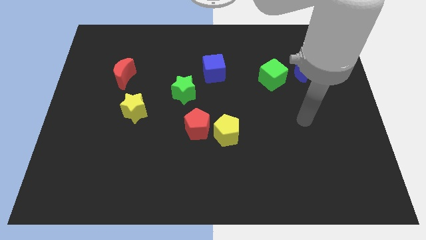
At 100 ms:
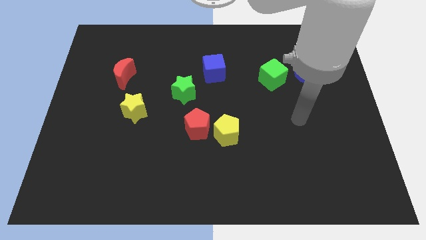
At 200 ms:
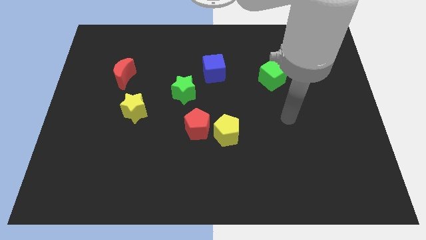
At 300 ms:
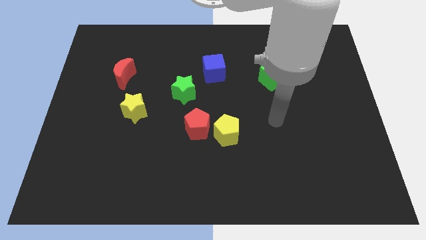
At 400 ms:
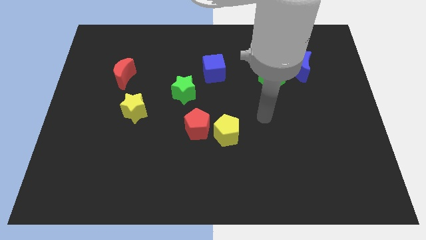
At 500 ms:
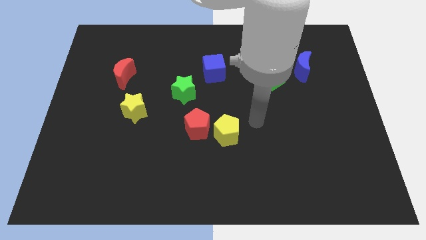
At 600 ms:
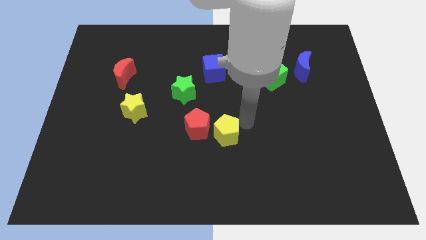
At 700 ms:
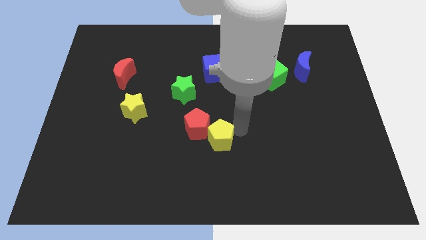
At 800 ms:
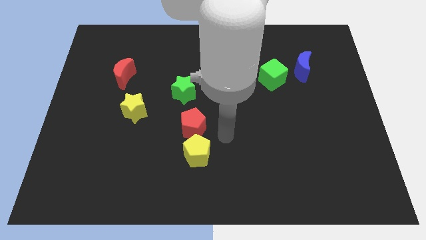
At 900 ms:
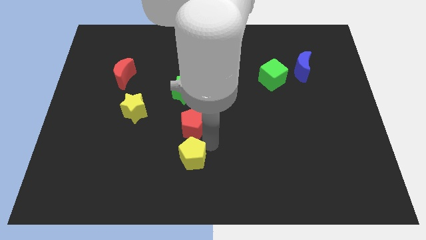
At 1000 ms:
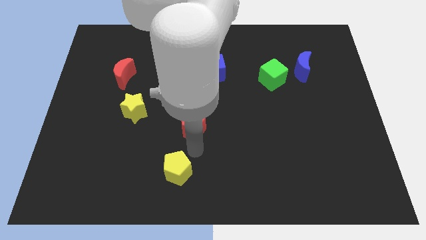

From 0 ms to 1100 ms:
move the red pentagon away from the yellow pentagon

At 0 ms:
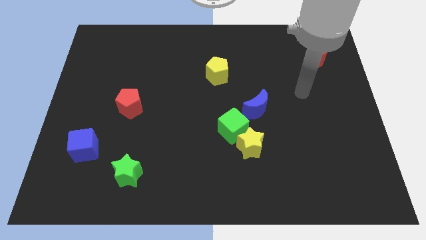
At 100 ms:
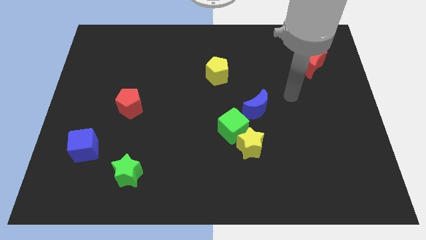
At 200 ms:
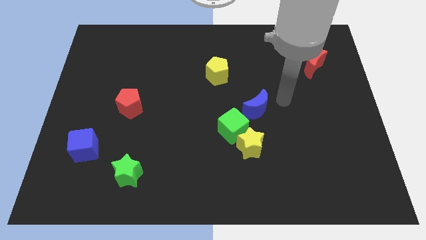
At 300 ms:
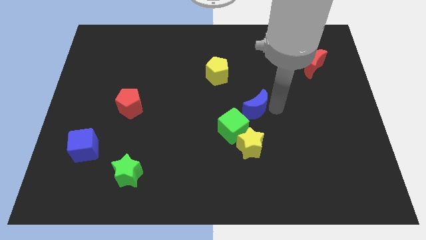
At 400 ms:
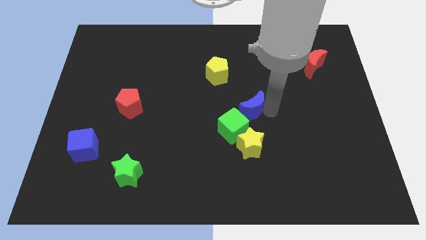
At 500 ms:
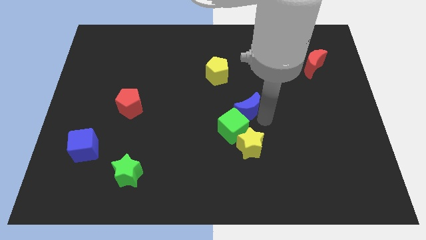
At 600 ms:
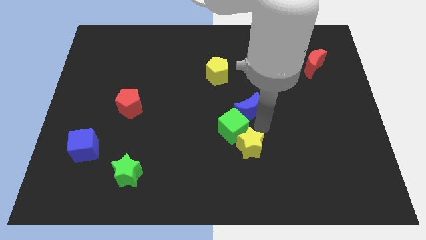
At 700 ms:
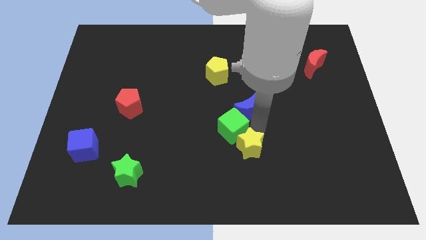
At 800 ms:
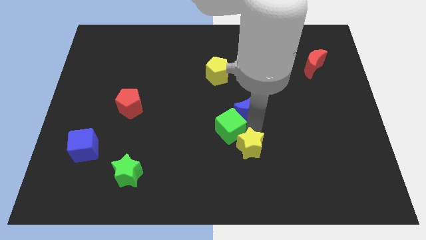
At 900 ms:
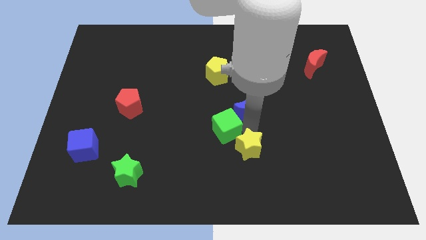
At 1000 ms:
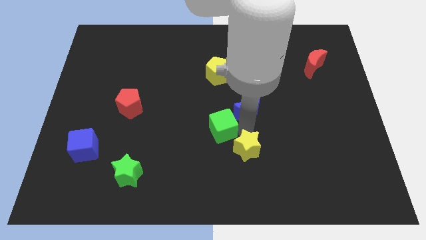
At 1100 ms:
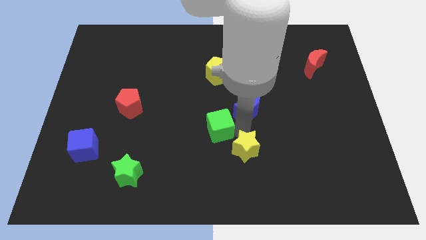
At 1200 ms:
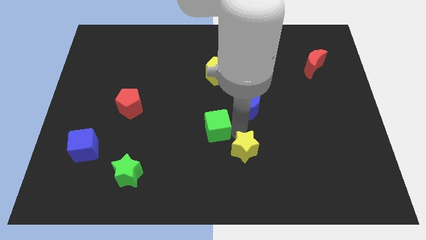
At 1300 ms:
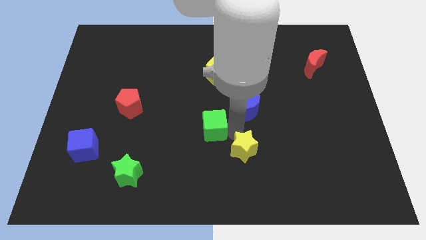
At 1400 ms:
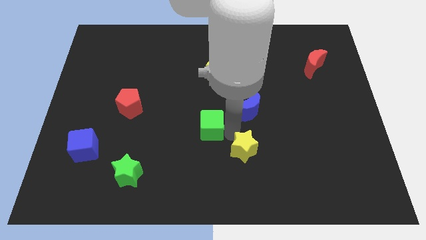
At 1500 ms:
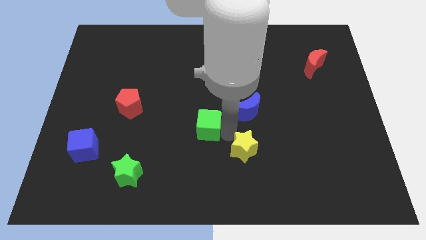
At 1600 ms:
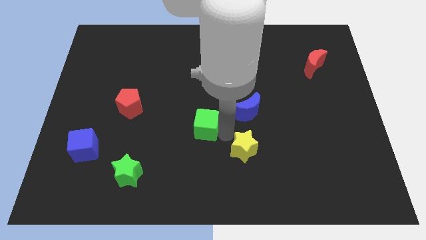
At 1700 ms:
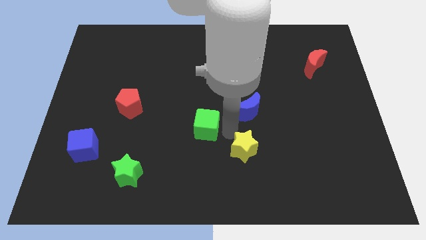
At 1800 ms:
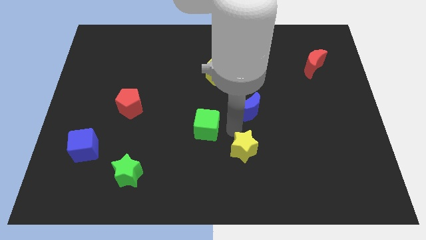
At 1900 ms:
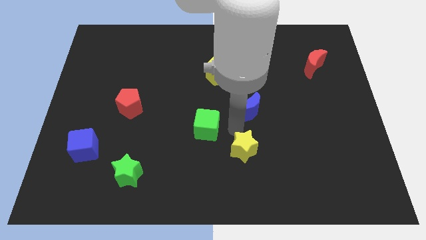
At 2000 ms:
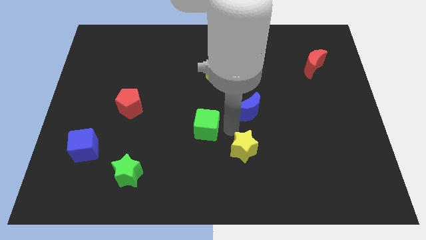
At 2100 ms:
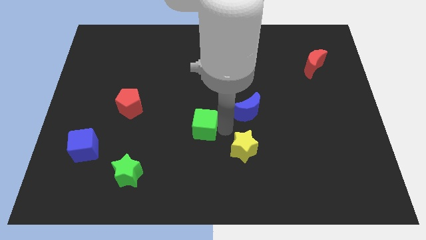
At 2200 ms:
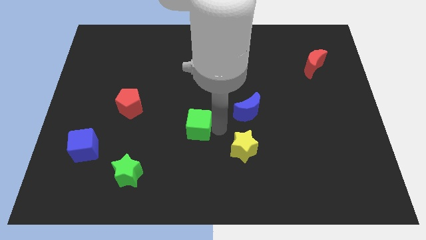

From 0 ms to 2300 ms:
move the green cube away from the yellow star and blue moon

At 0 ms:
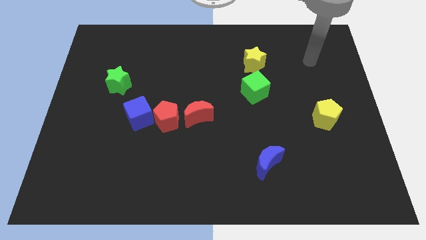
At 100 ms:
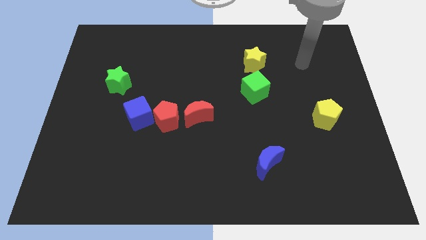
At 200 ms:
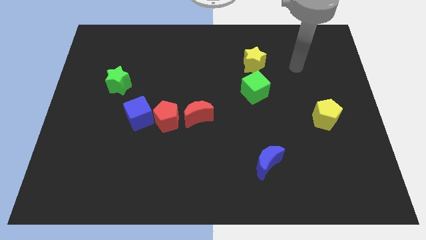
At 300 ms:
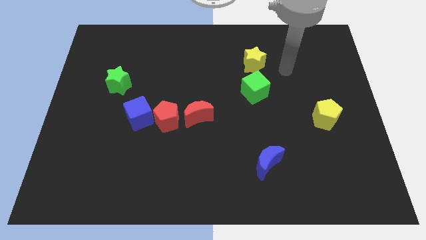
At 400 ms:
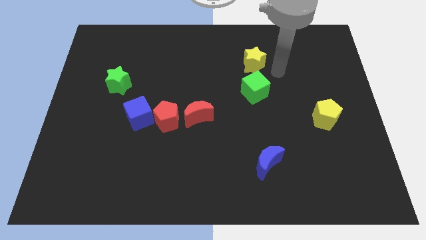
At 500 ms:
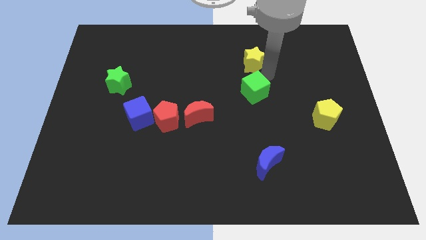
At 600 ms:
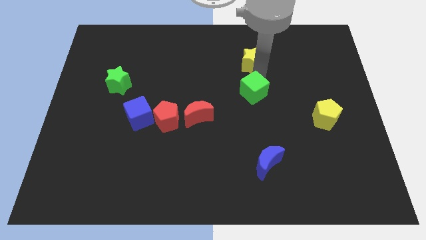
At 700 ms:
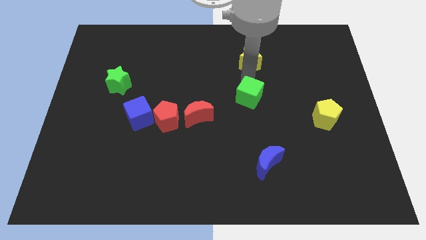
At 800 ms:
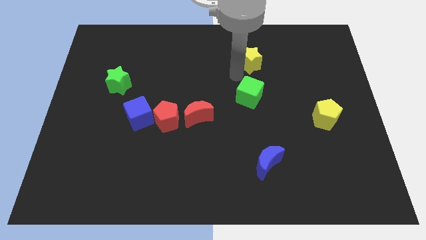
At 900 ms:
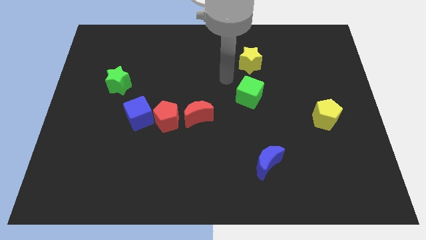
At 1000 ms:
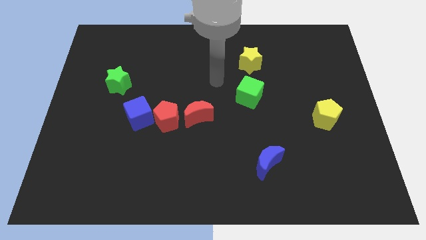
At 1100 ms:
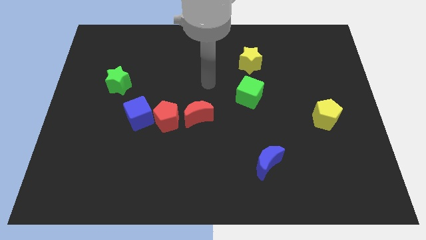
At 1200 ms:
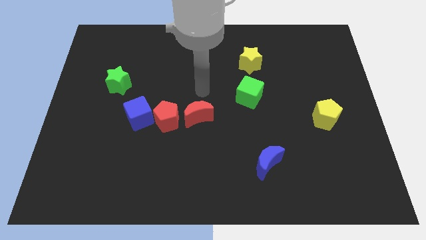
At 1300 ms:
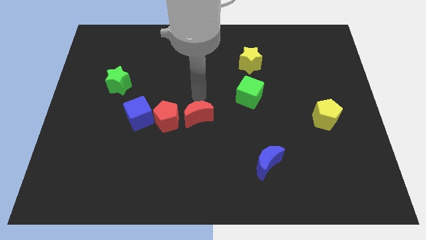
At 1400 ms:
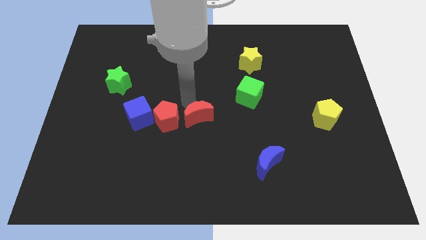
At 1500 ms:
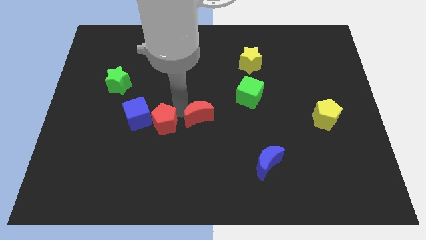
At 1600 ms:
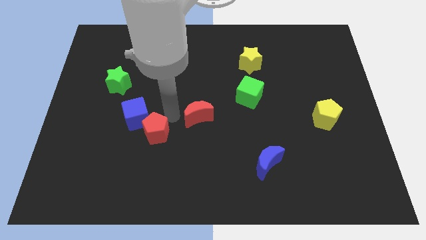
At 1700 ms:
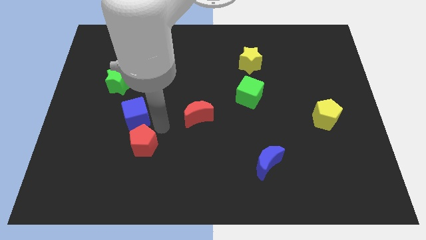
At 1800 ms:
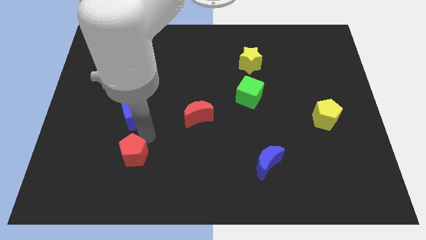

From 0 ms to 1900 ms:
pull the blue cube apart from the red pentagon

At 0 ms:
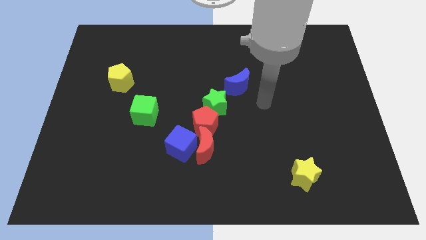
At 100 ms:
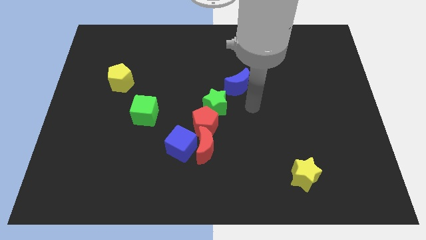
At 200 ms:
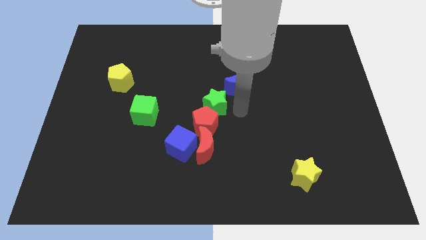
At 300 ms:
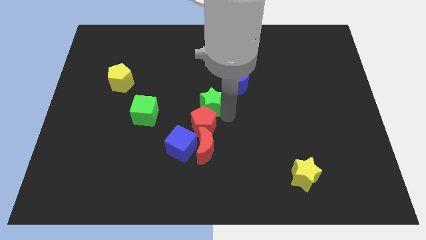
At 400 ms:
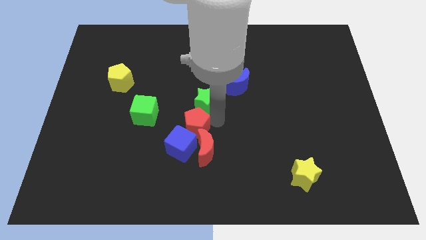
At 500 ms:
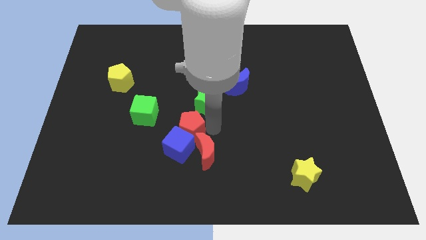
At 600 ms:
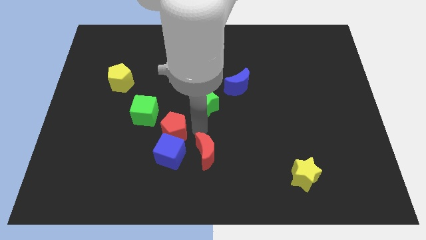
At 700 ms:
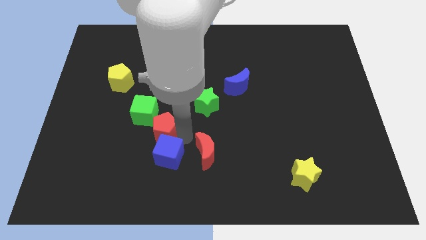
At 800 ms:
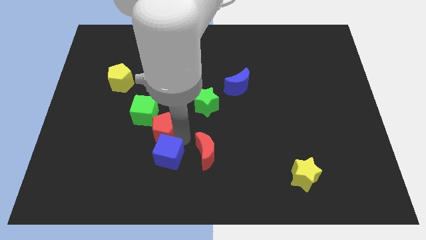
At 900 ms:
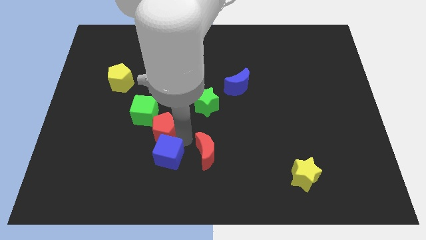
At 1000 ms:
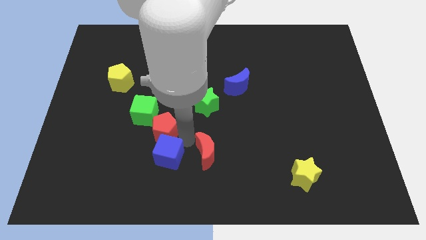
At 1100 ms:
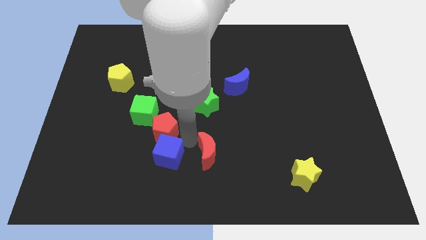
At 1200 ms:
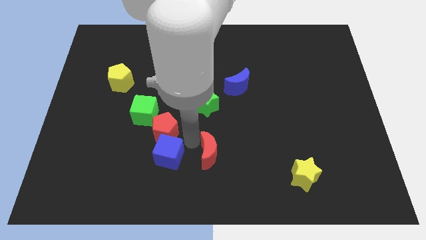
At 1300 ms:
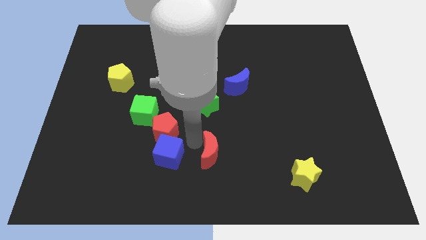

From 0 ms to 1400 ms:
separate the red moon from the blue cube and red pentagon

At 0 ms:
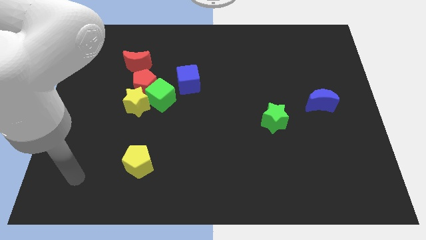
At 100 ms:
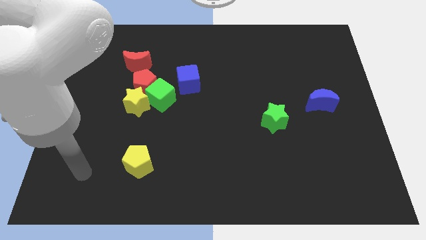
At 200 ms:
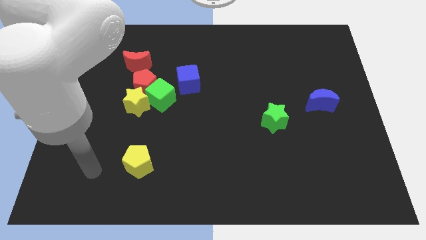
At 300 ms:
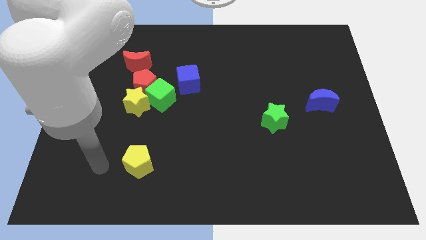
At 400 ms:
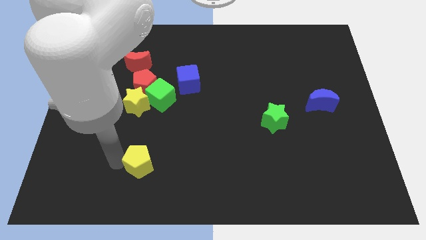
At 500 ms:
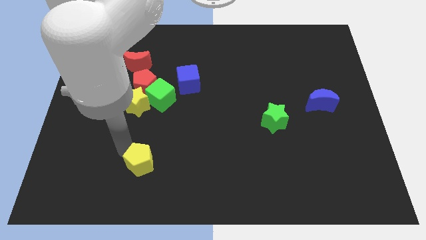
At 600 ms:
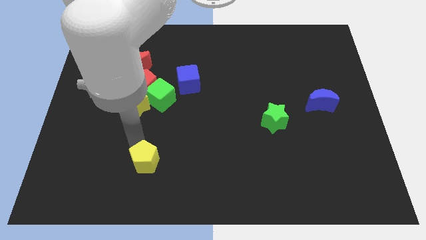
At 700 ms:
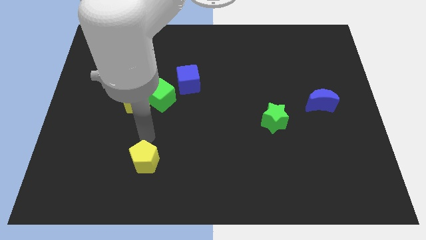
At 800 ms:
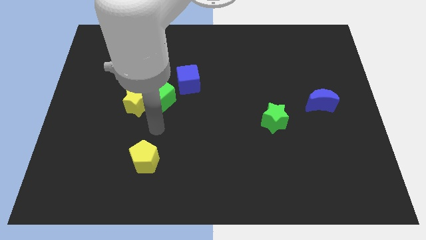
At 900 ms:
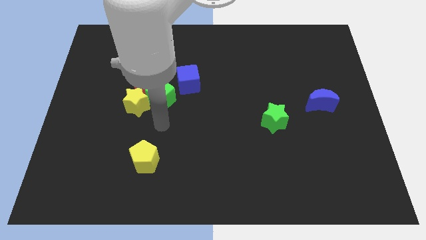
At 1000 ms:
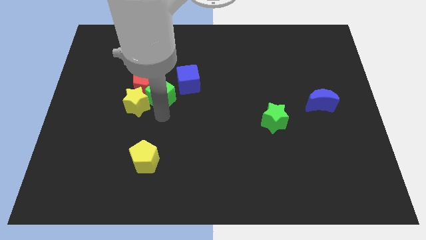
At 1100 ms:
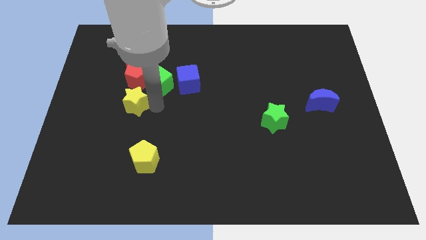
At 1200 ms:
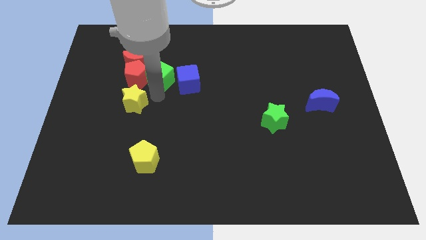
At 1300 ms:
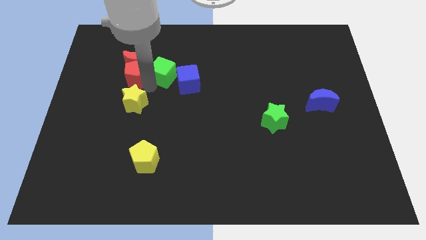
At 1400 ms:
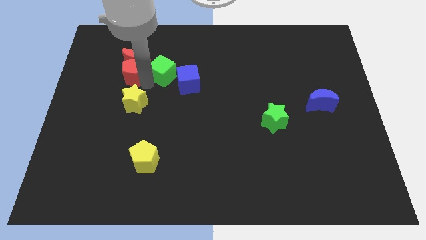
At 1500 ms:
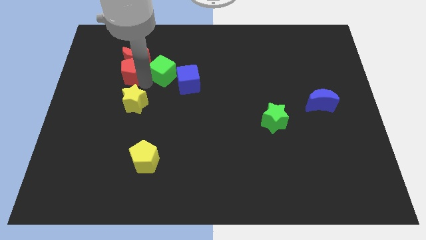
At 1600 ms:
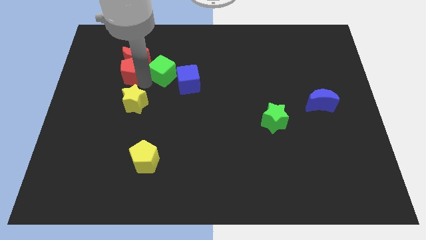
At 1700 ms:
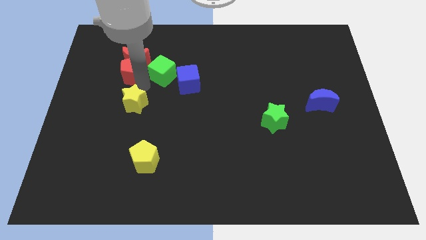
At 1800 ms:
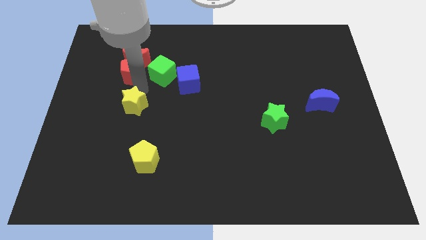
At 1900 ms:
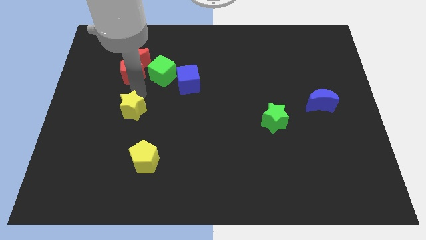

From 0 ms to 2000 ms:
separate the yellow star from the red pentagon and green cube

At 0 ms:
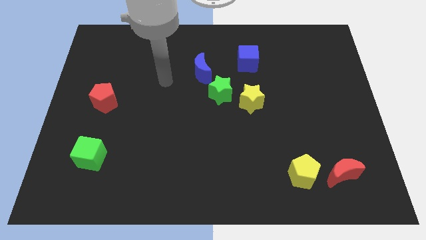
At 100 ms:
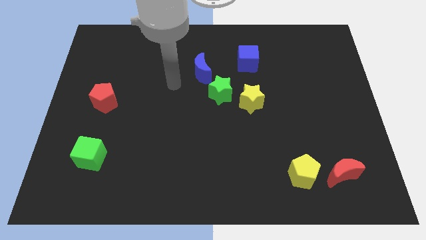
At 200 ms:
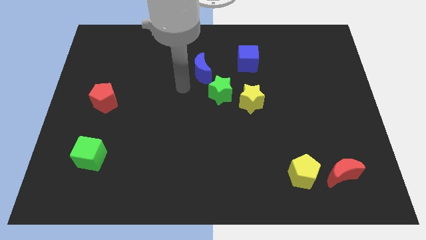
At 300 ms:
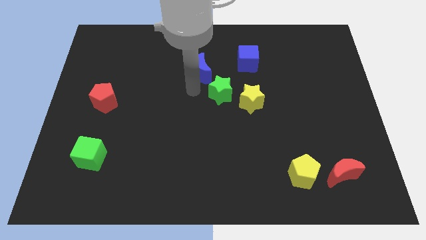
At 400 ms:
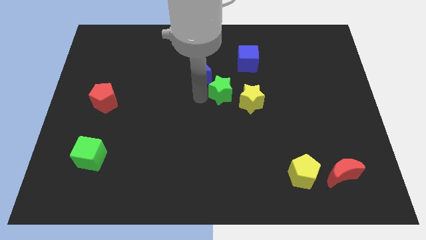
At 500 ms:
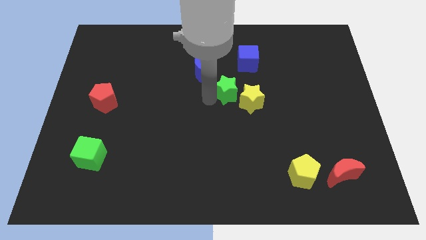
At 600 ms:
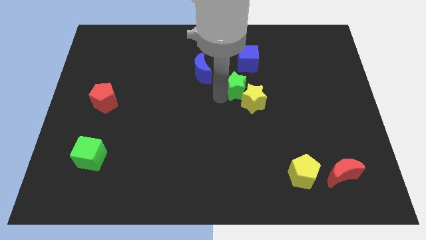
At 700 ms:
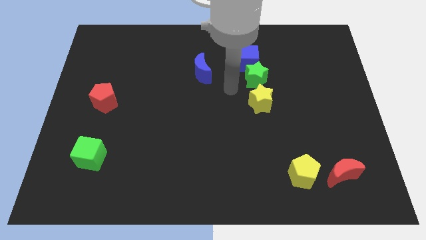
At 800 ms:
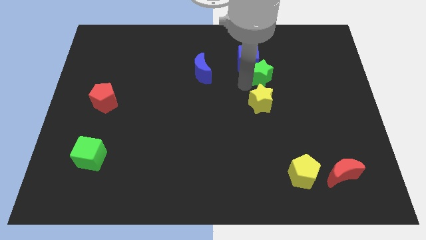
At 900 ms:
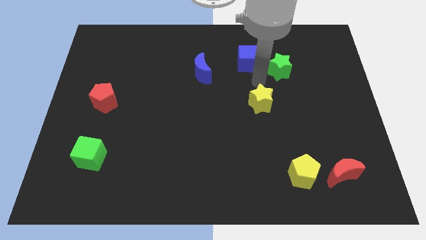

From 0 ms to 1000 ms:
pull the yellow star apart from the green star
